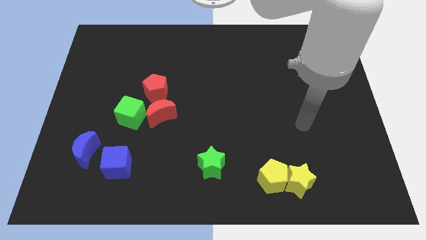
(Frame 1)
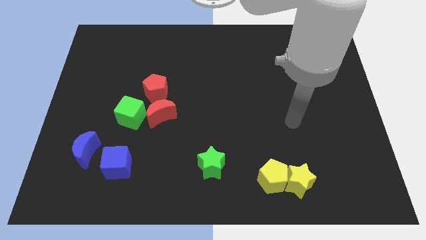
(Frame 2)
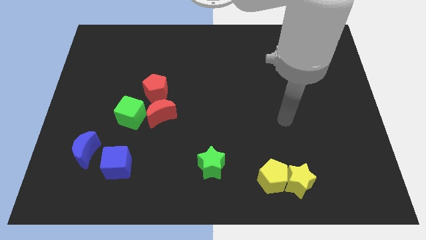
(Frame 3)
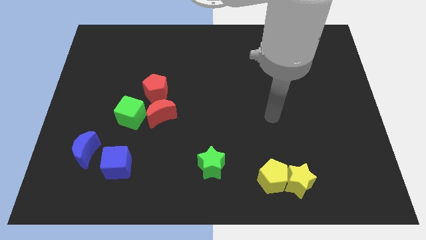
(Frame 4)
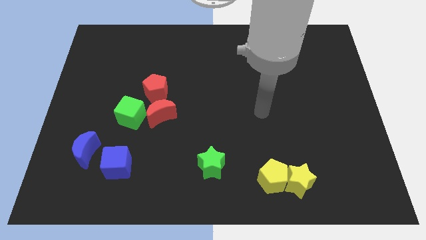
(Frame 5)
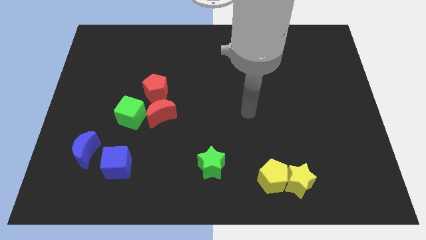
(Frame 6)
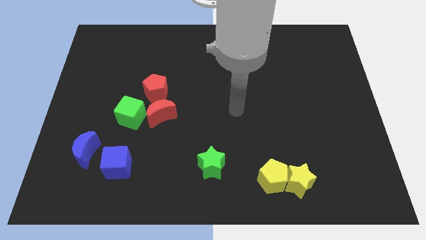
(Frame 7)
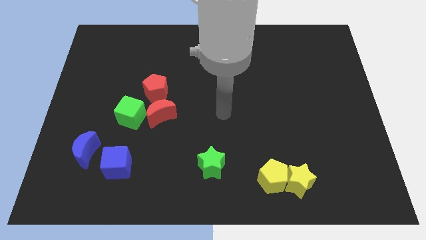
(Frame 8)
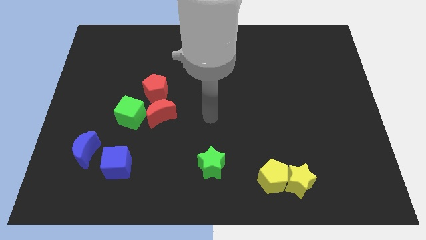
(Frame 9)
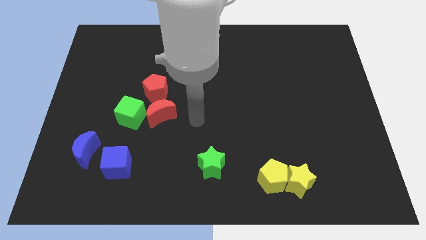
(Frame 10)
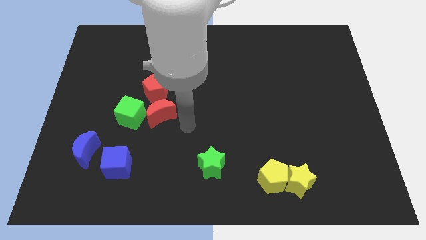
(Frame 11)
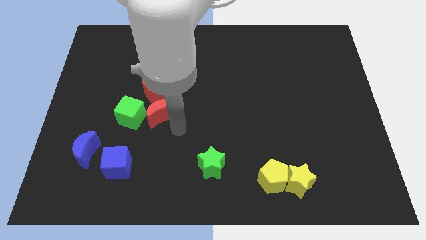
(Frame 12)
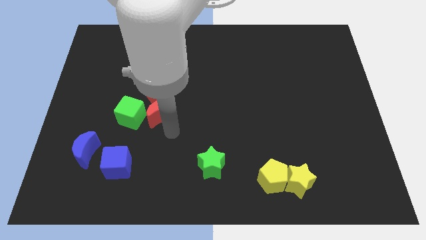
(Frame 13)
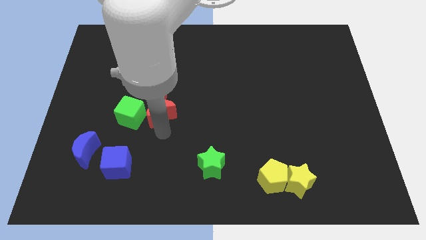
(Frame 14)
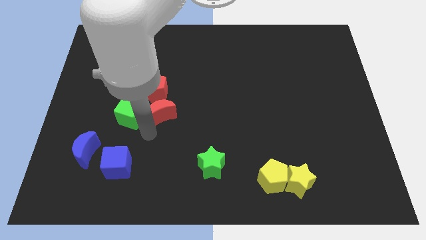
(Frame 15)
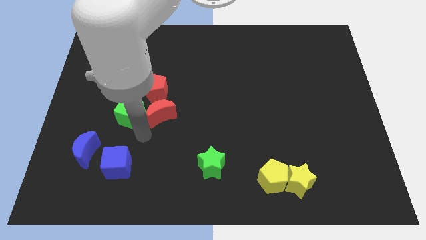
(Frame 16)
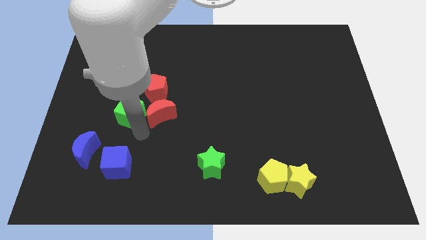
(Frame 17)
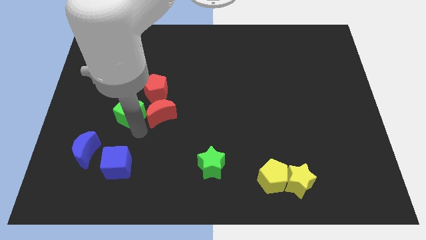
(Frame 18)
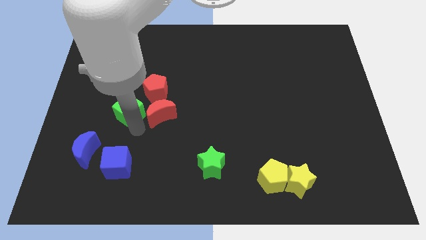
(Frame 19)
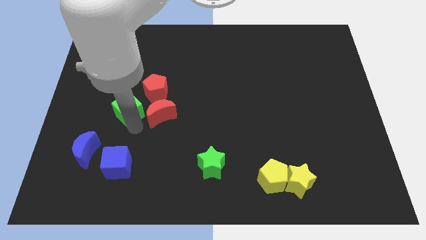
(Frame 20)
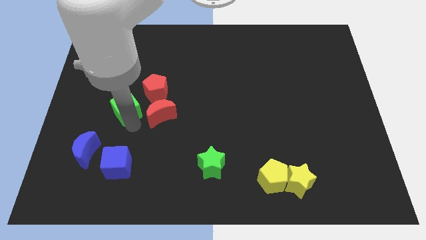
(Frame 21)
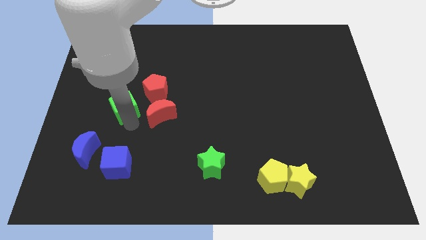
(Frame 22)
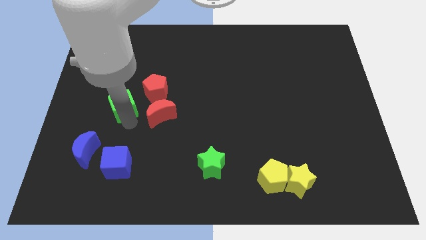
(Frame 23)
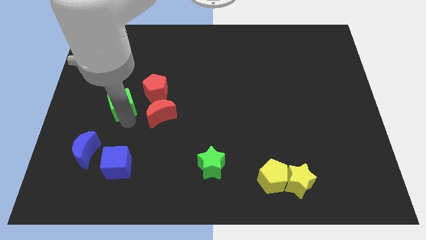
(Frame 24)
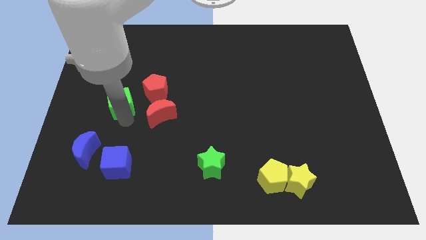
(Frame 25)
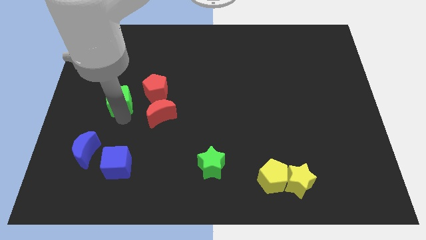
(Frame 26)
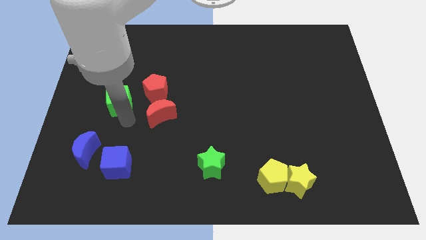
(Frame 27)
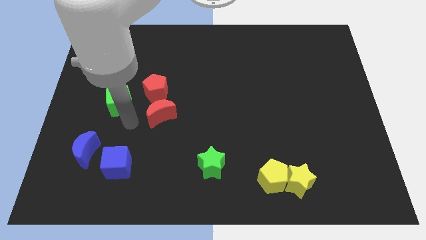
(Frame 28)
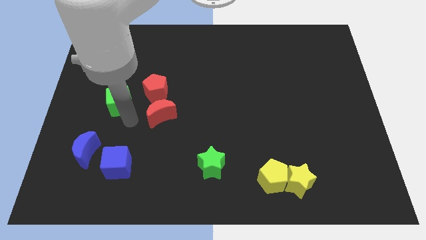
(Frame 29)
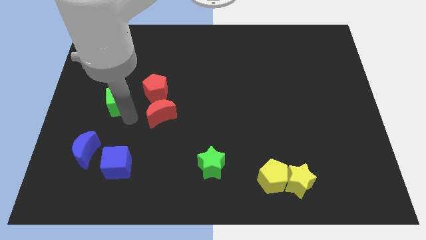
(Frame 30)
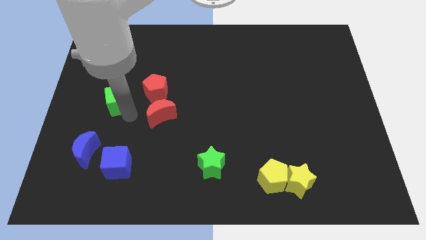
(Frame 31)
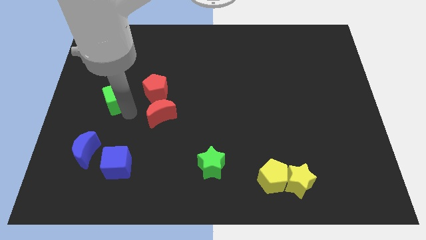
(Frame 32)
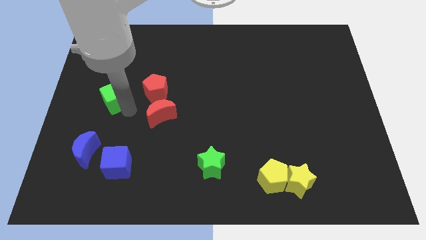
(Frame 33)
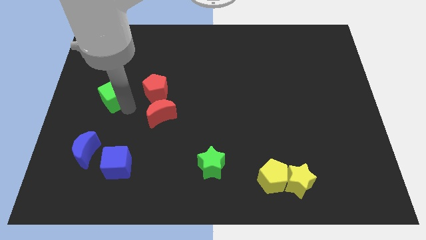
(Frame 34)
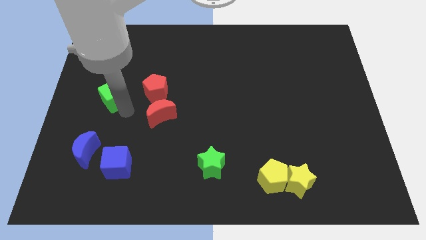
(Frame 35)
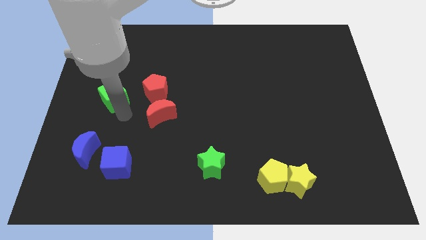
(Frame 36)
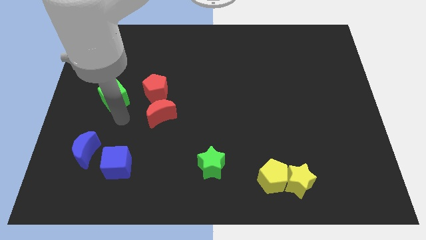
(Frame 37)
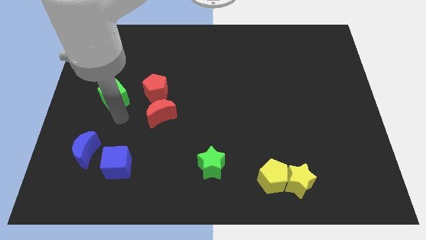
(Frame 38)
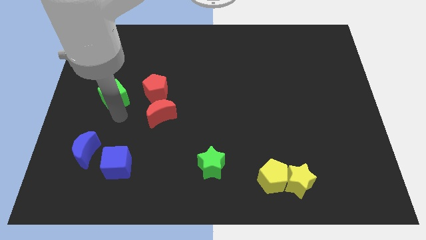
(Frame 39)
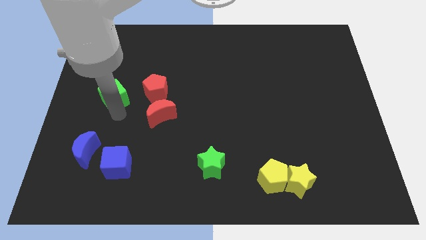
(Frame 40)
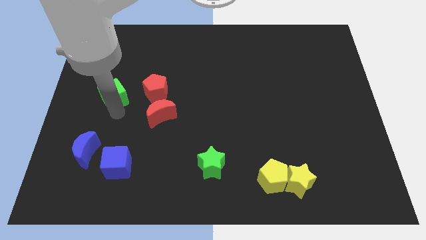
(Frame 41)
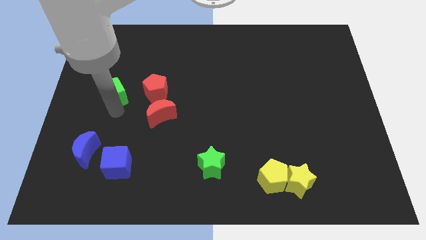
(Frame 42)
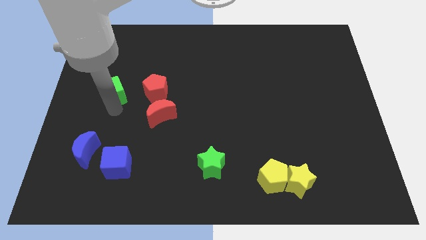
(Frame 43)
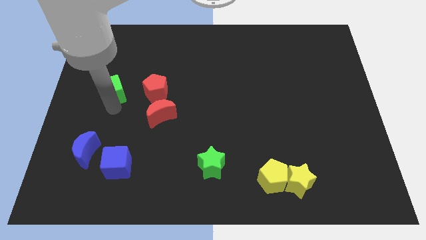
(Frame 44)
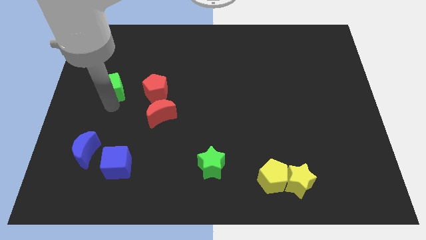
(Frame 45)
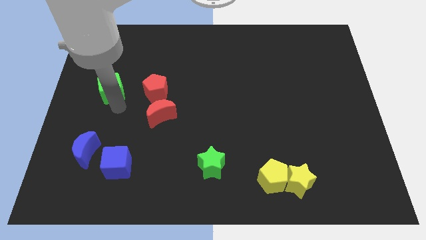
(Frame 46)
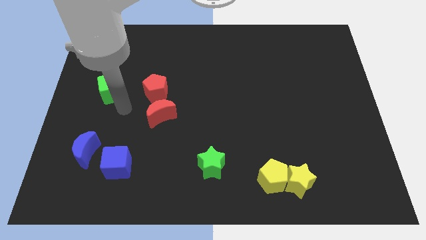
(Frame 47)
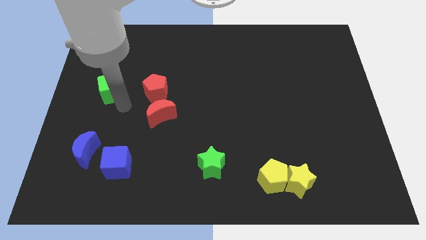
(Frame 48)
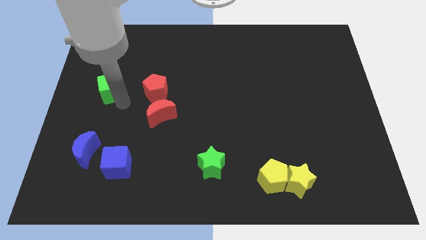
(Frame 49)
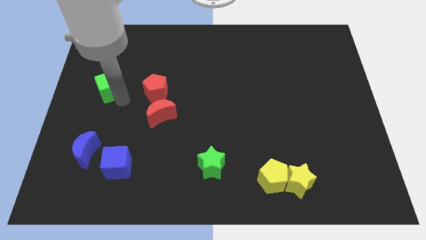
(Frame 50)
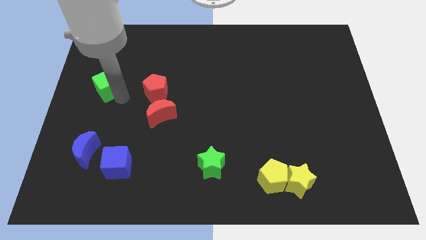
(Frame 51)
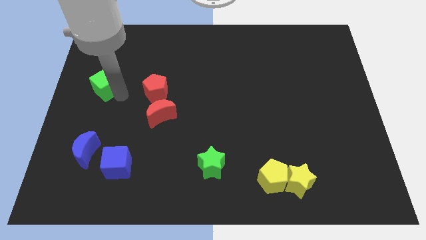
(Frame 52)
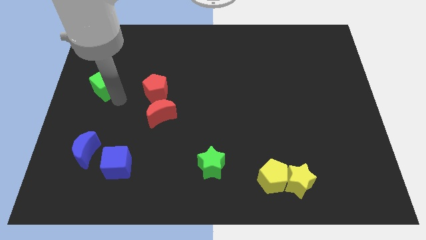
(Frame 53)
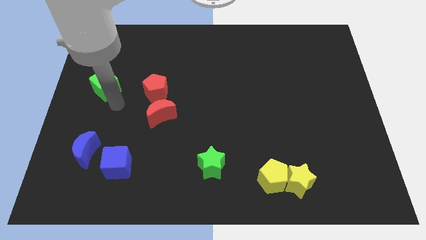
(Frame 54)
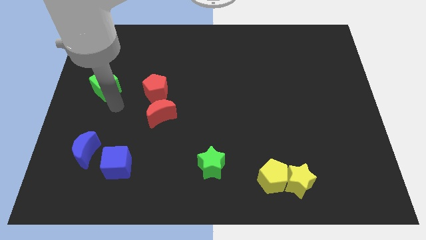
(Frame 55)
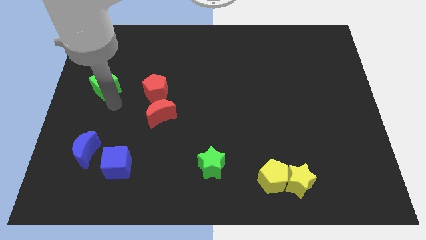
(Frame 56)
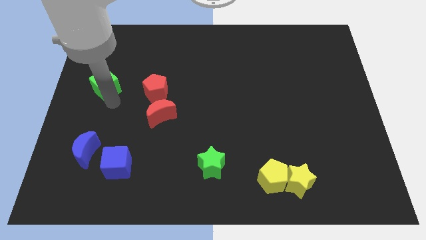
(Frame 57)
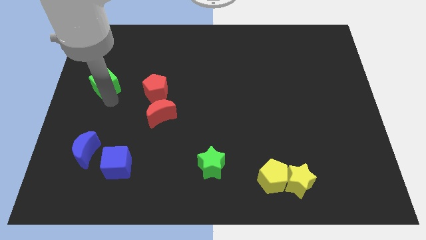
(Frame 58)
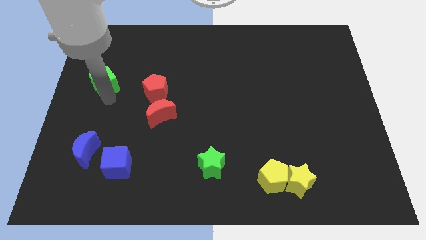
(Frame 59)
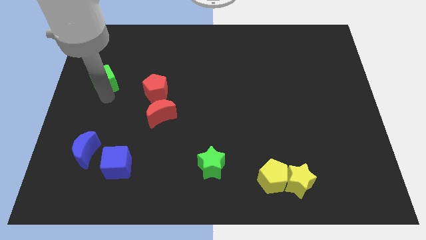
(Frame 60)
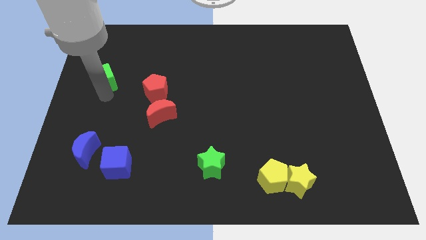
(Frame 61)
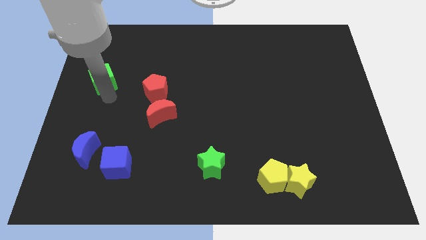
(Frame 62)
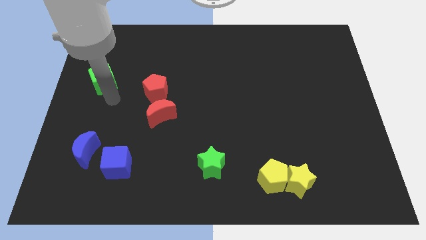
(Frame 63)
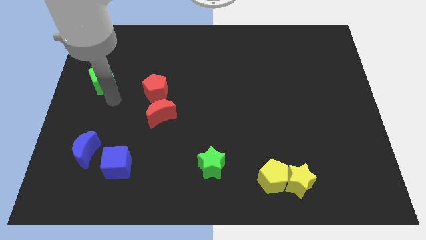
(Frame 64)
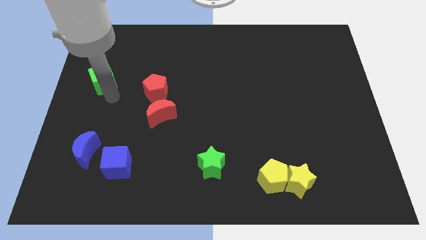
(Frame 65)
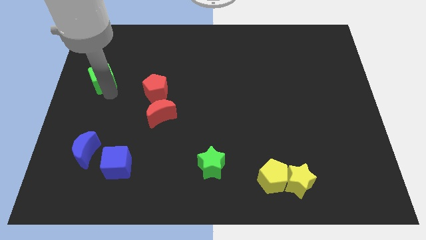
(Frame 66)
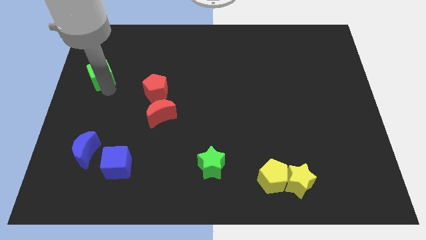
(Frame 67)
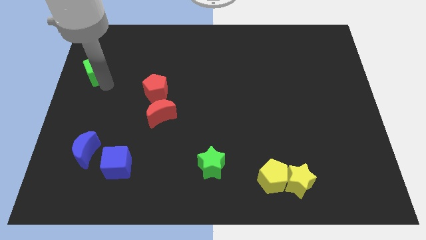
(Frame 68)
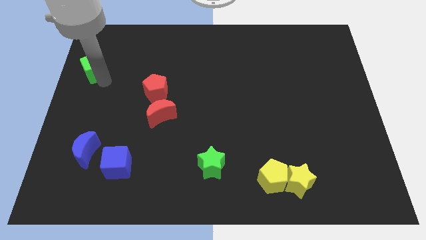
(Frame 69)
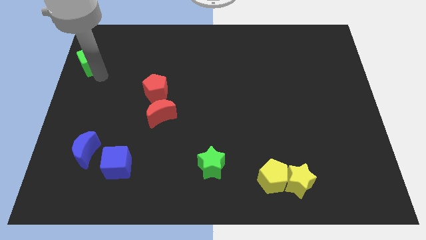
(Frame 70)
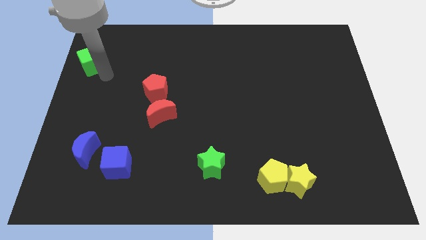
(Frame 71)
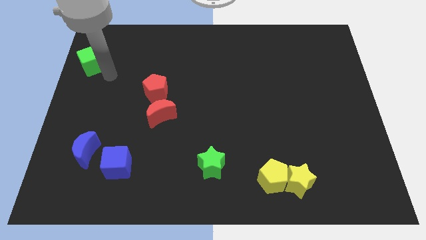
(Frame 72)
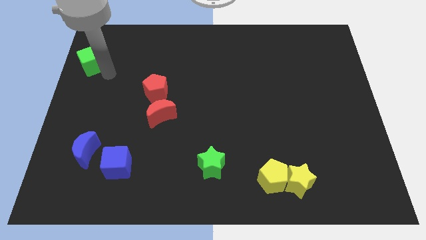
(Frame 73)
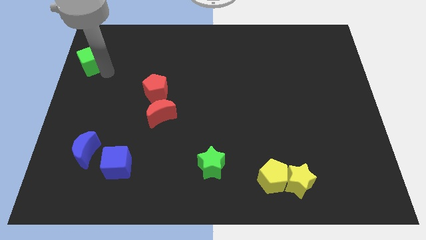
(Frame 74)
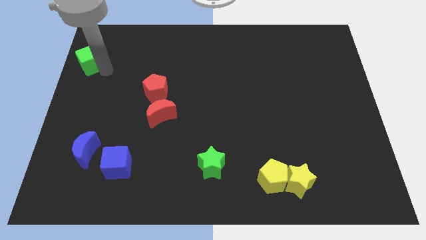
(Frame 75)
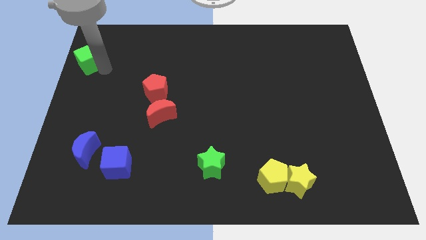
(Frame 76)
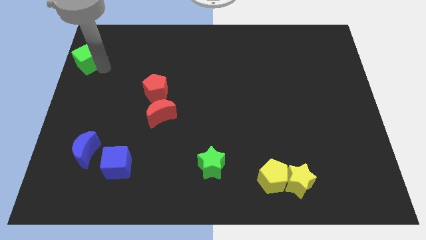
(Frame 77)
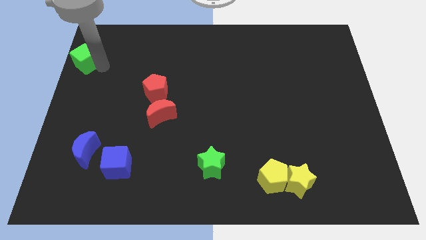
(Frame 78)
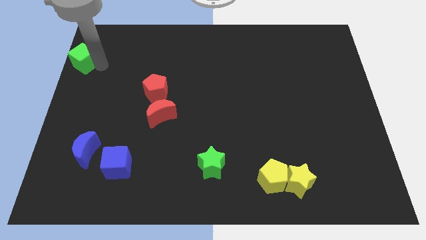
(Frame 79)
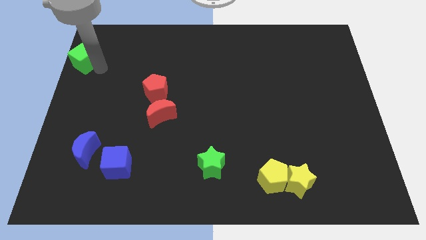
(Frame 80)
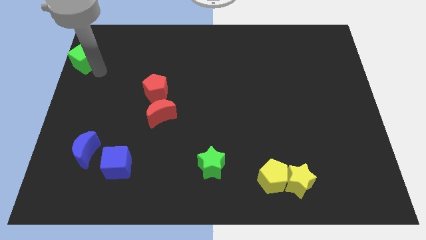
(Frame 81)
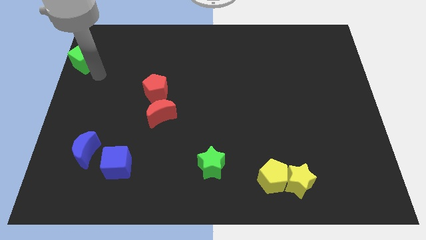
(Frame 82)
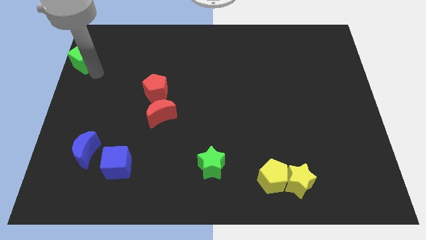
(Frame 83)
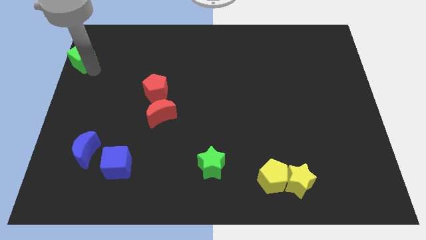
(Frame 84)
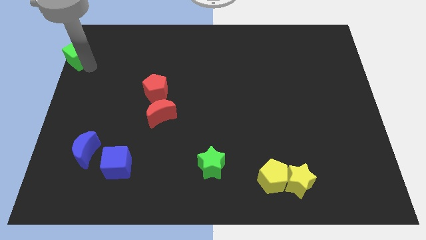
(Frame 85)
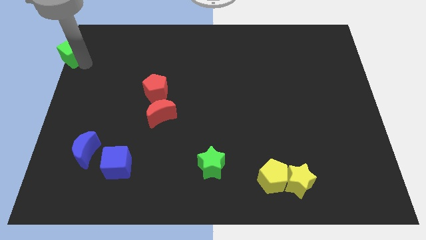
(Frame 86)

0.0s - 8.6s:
push the green cube to the top left of the board
